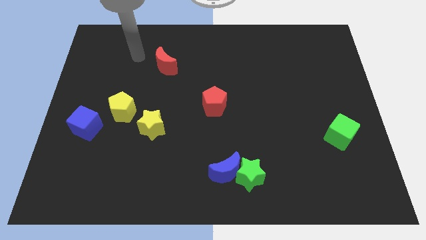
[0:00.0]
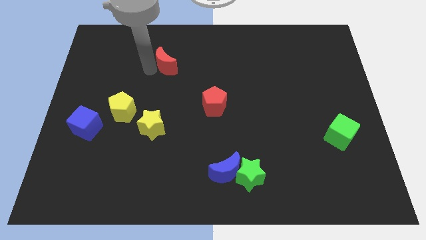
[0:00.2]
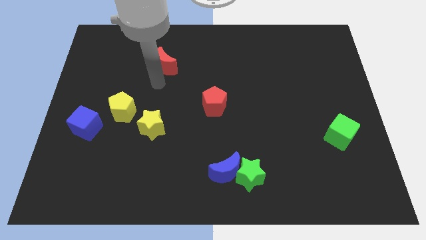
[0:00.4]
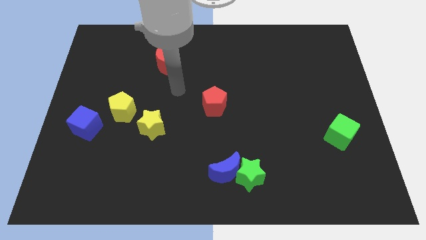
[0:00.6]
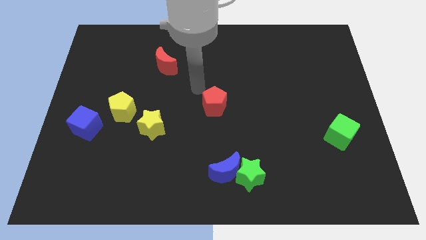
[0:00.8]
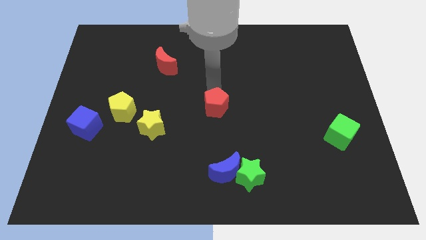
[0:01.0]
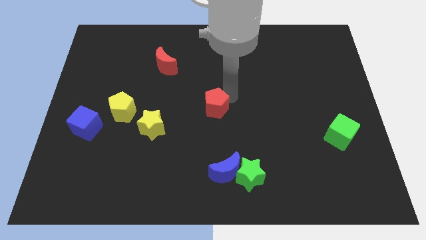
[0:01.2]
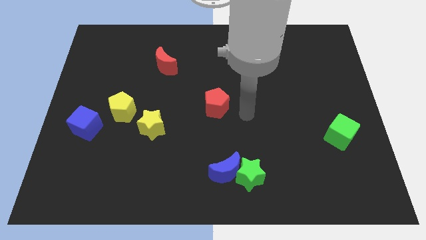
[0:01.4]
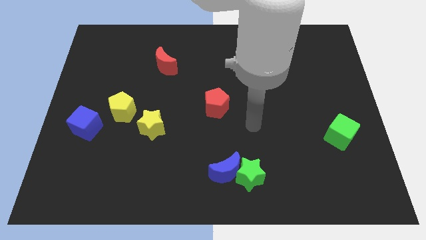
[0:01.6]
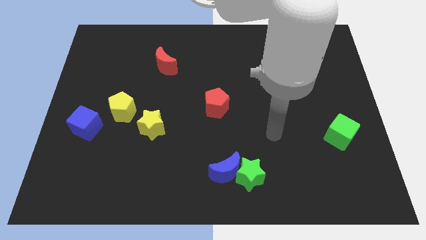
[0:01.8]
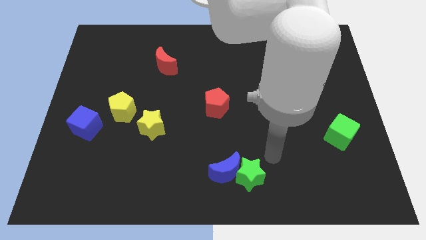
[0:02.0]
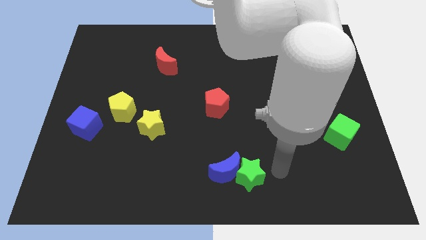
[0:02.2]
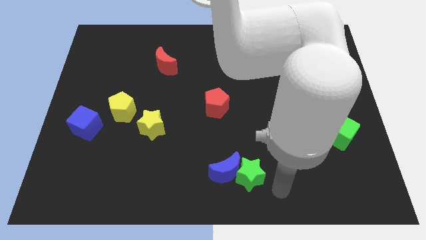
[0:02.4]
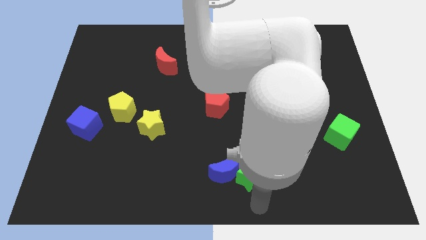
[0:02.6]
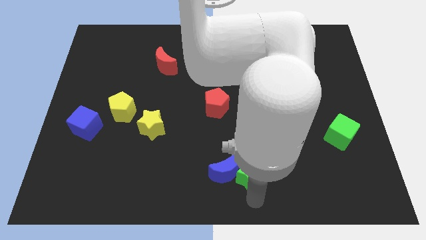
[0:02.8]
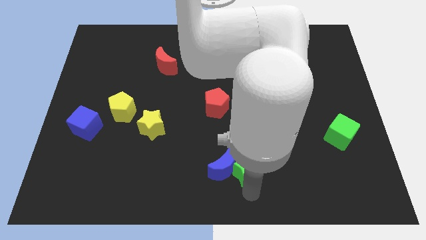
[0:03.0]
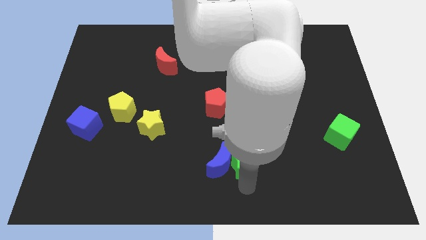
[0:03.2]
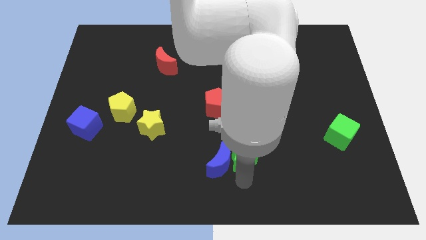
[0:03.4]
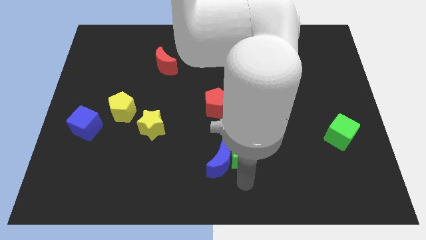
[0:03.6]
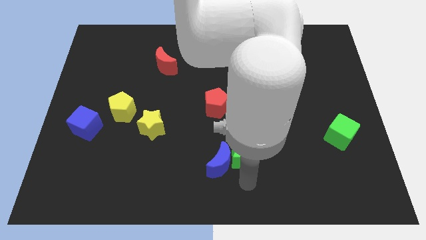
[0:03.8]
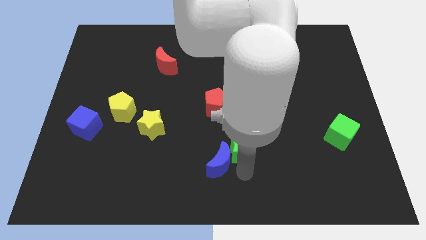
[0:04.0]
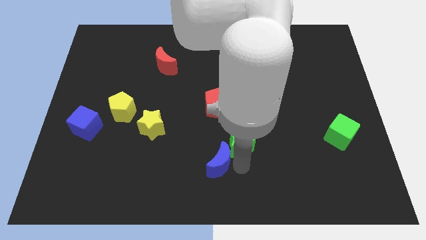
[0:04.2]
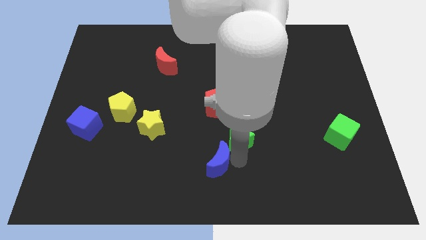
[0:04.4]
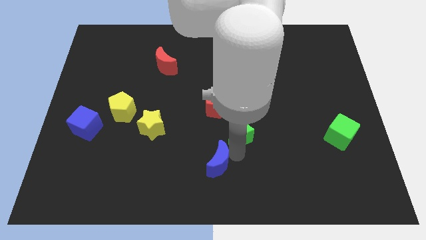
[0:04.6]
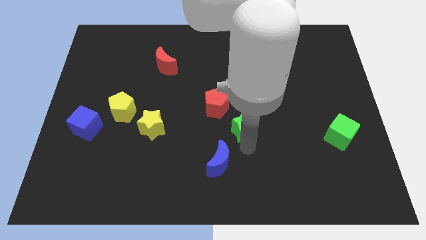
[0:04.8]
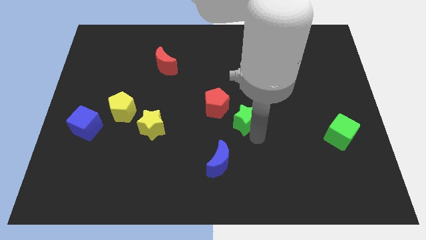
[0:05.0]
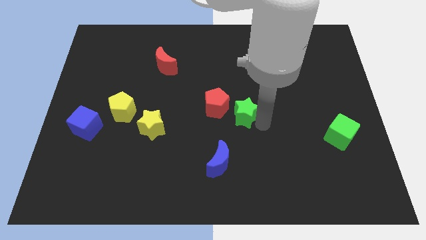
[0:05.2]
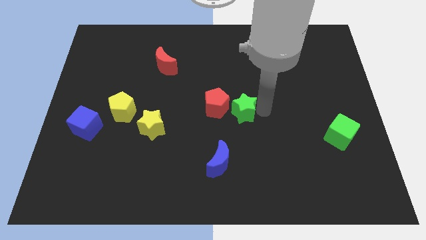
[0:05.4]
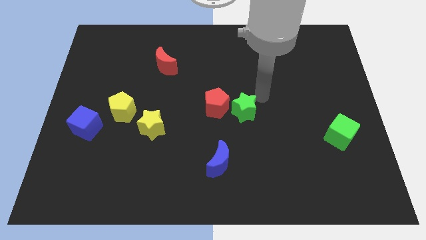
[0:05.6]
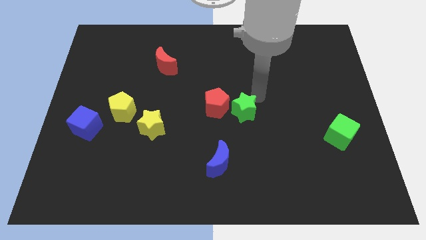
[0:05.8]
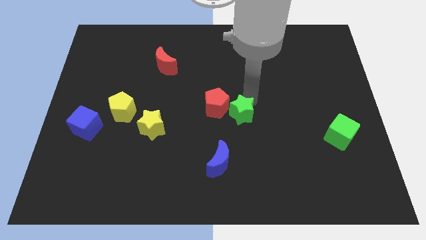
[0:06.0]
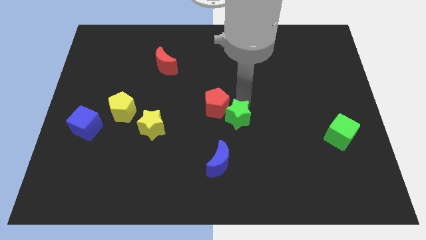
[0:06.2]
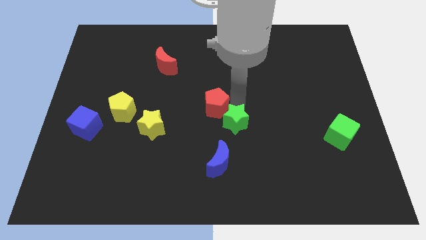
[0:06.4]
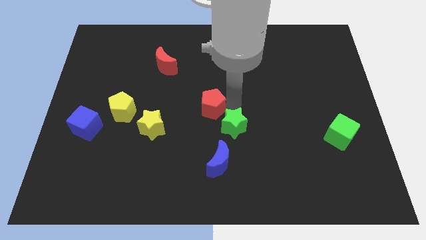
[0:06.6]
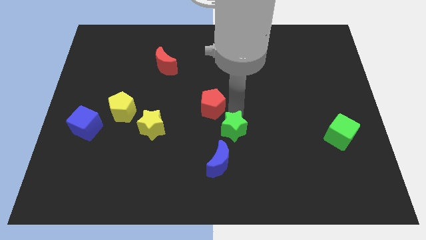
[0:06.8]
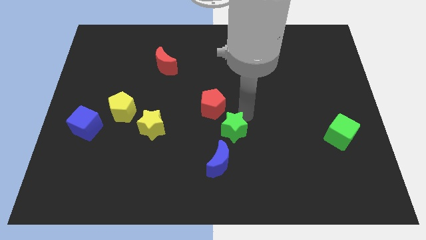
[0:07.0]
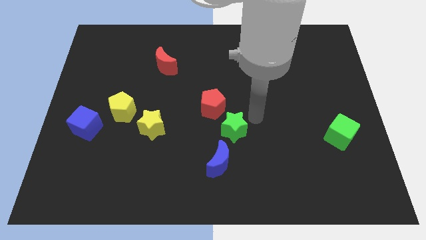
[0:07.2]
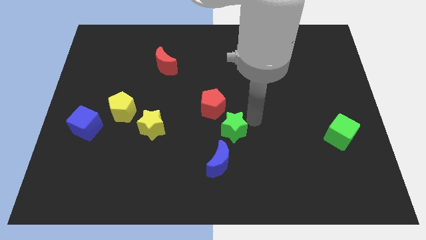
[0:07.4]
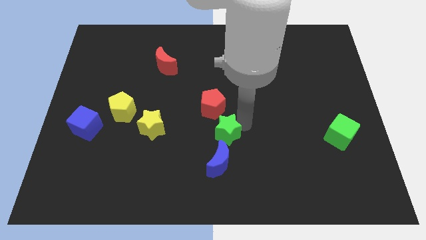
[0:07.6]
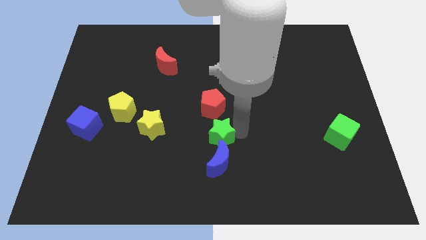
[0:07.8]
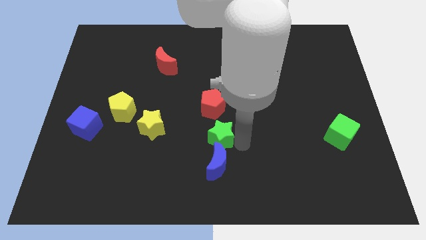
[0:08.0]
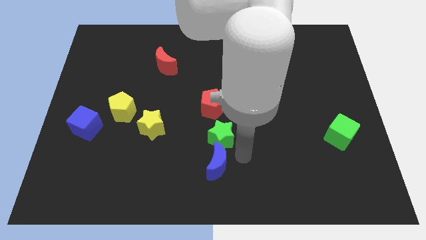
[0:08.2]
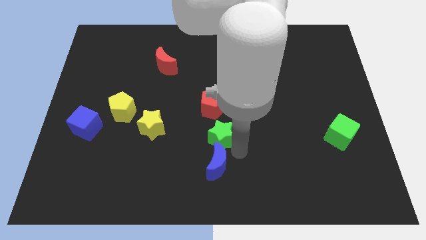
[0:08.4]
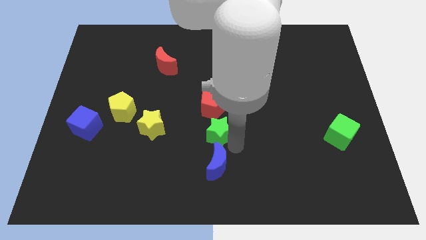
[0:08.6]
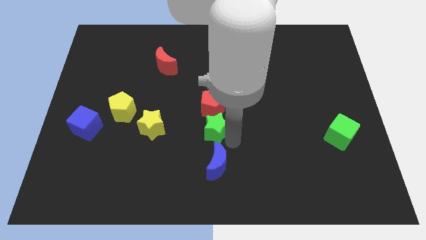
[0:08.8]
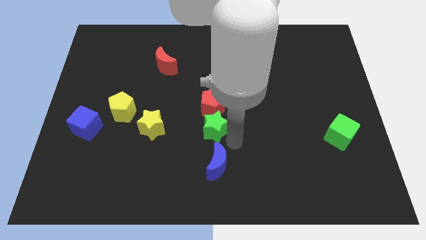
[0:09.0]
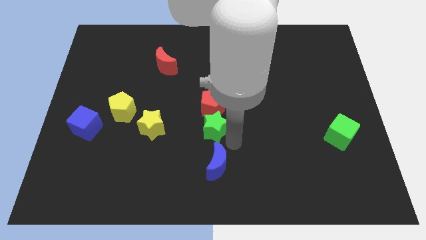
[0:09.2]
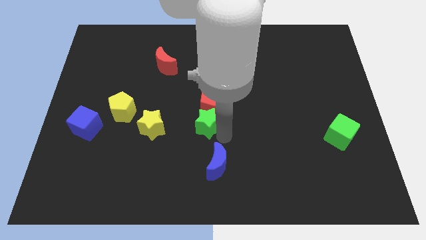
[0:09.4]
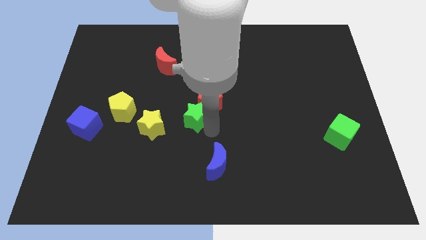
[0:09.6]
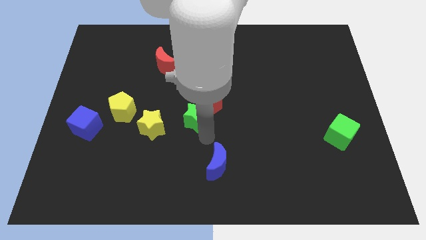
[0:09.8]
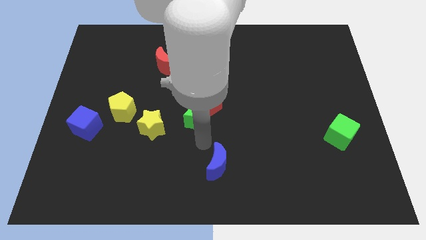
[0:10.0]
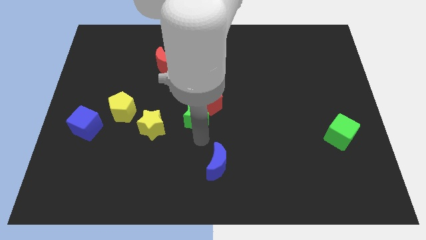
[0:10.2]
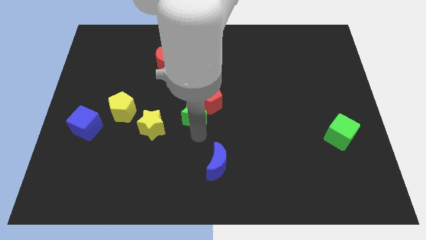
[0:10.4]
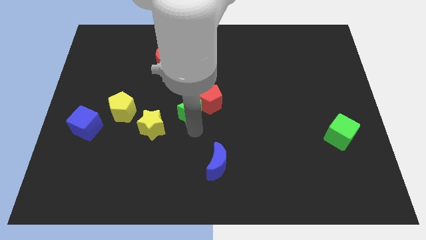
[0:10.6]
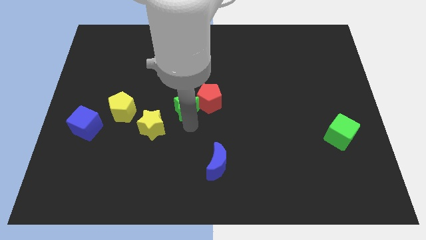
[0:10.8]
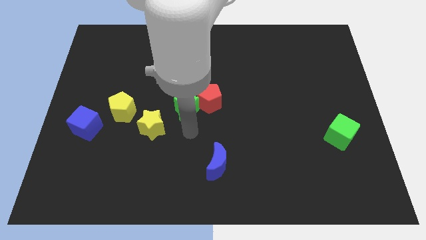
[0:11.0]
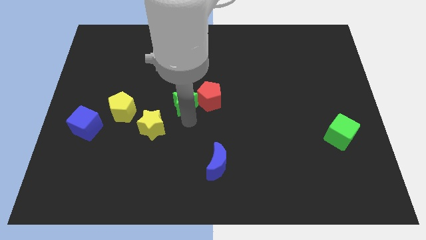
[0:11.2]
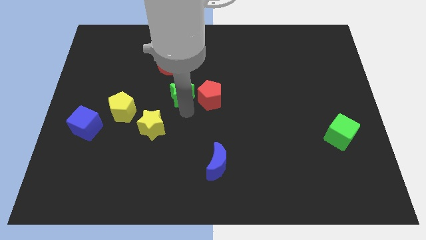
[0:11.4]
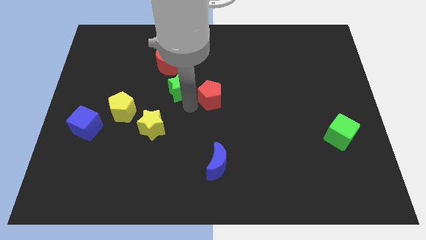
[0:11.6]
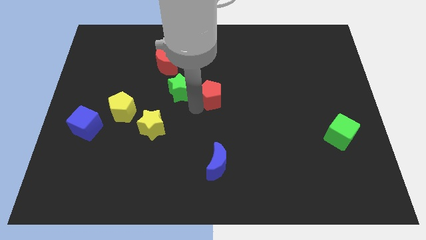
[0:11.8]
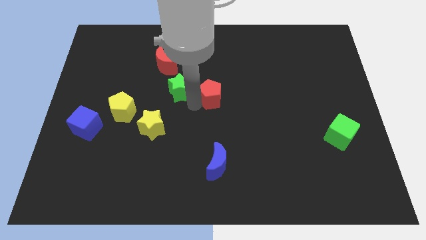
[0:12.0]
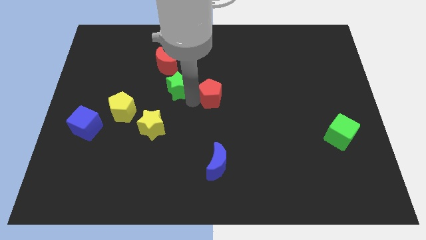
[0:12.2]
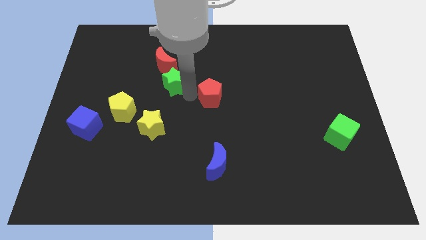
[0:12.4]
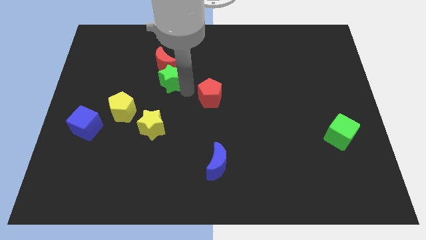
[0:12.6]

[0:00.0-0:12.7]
slide the green star towards the red moon

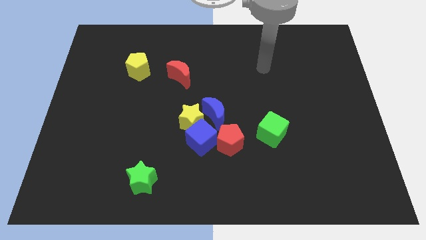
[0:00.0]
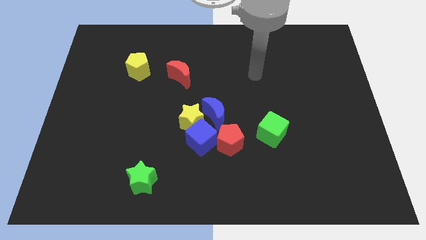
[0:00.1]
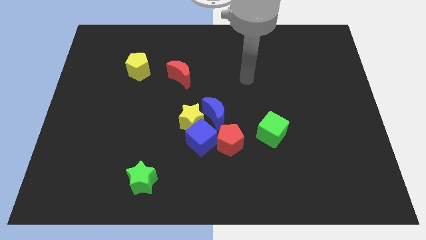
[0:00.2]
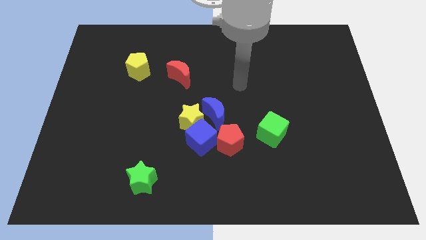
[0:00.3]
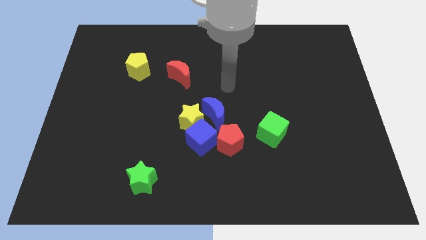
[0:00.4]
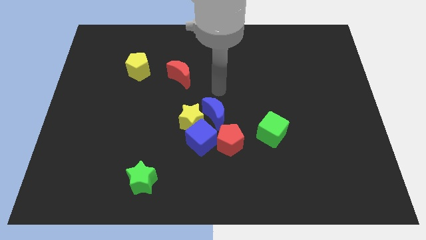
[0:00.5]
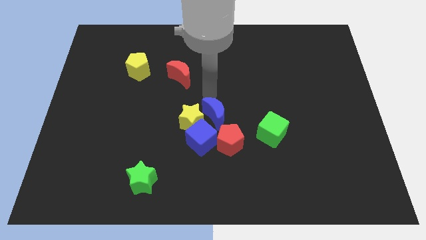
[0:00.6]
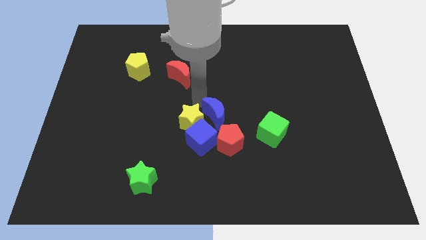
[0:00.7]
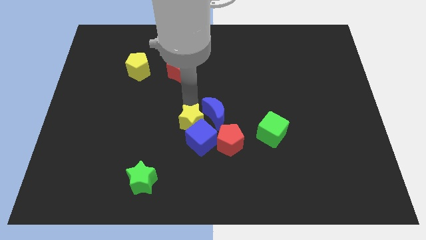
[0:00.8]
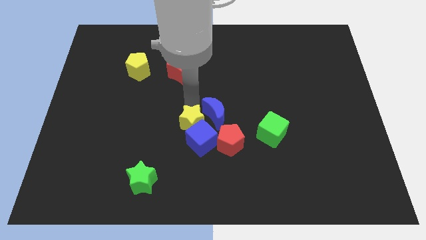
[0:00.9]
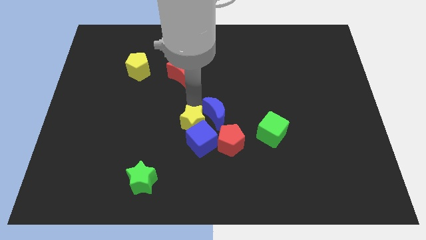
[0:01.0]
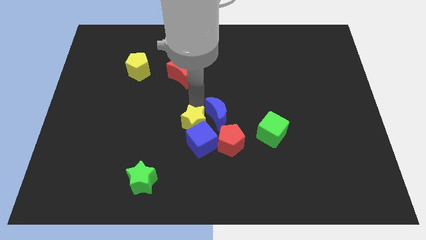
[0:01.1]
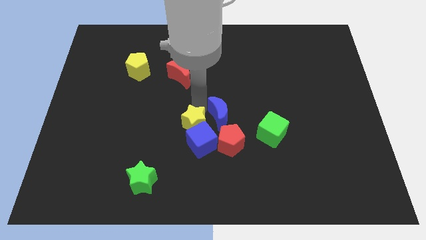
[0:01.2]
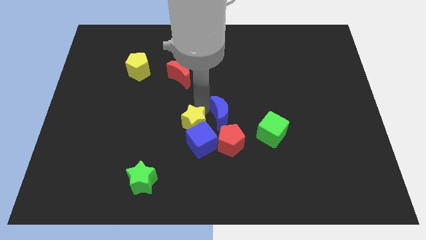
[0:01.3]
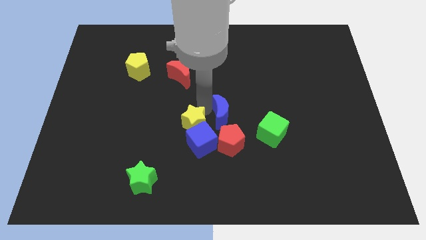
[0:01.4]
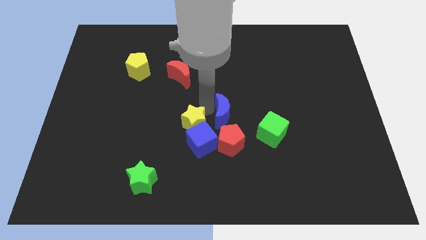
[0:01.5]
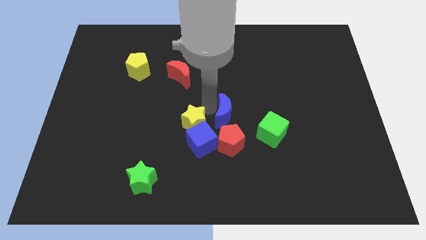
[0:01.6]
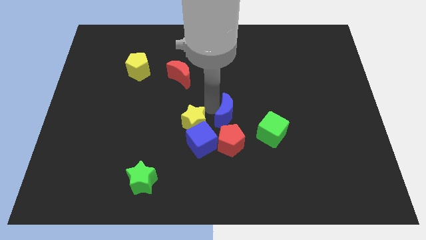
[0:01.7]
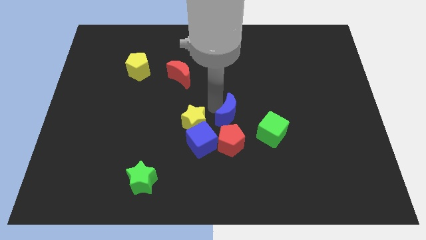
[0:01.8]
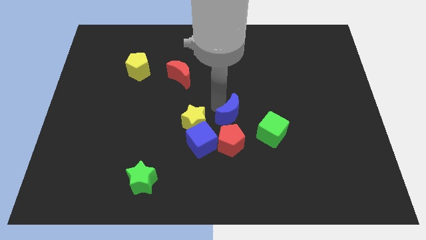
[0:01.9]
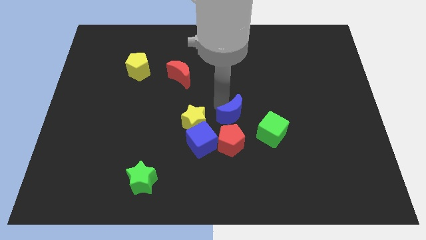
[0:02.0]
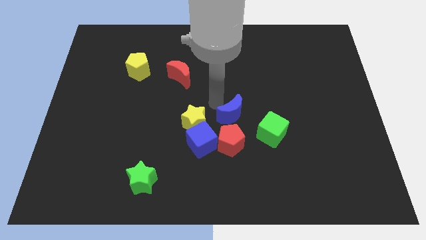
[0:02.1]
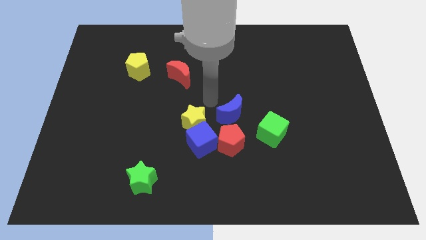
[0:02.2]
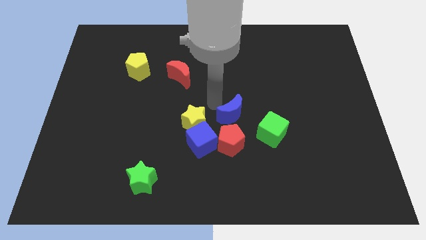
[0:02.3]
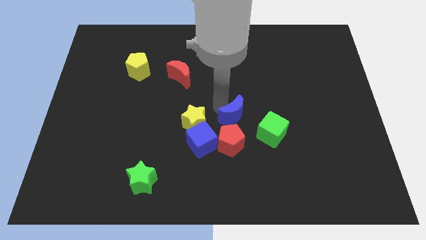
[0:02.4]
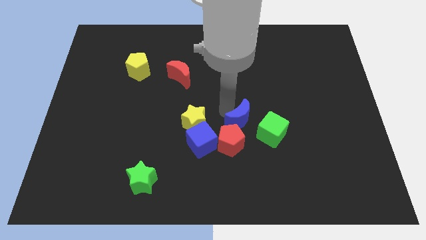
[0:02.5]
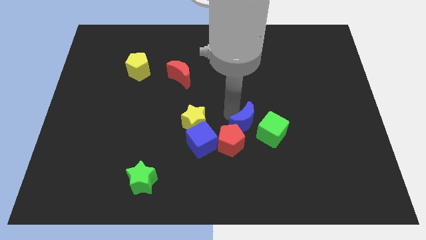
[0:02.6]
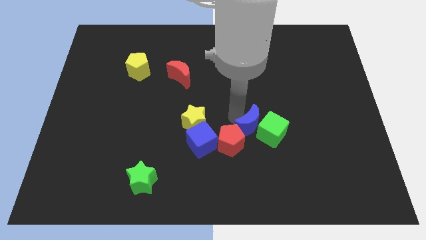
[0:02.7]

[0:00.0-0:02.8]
push the blue moon next to the green cube
